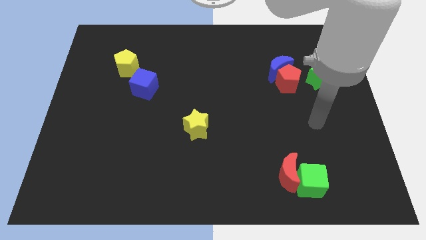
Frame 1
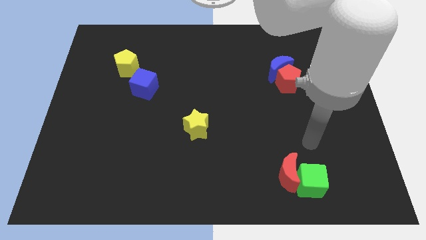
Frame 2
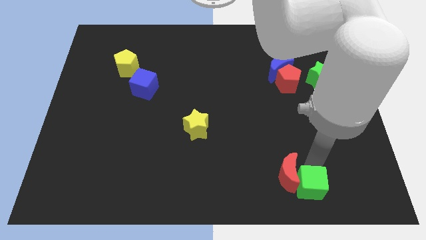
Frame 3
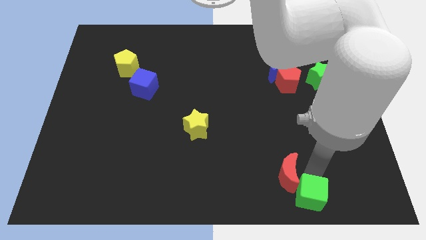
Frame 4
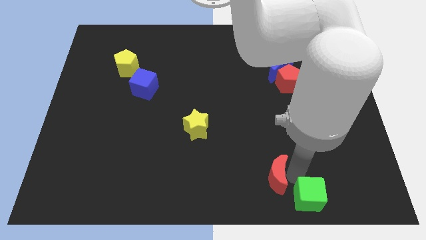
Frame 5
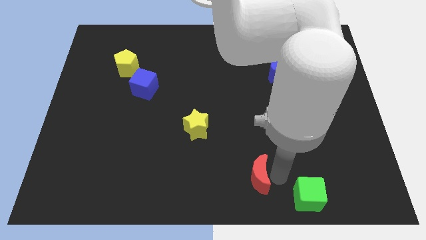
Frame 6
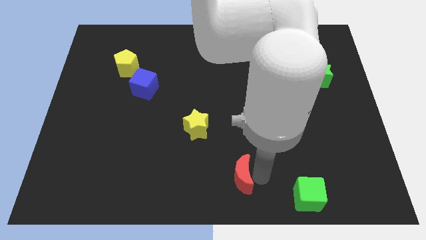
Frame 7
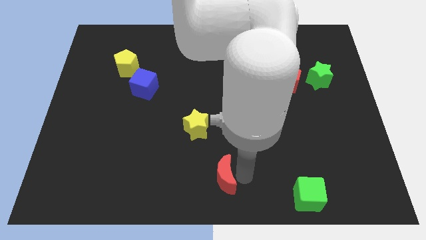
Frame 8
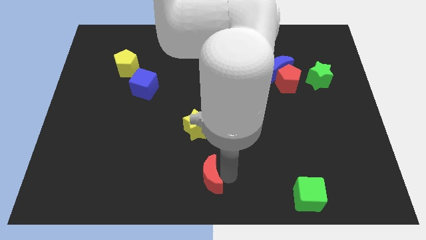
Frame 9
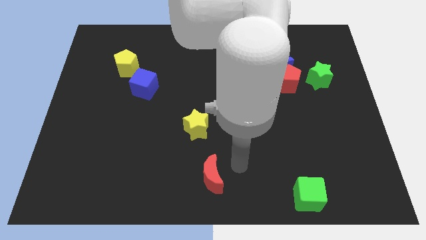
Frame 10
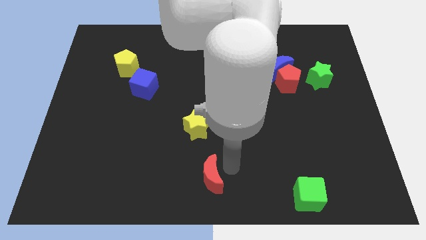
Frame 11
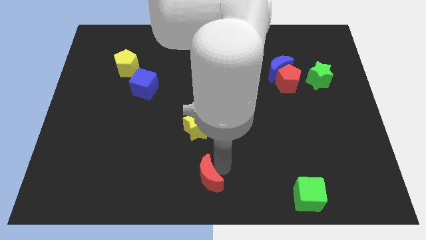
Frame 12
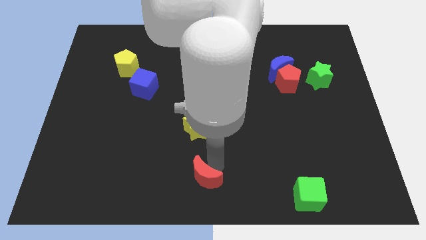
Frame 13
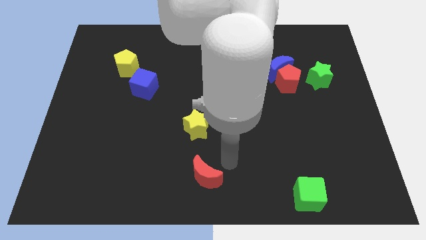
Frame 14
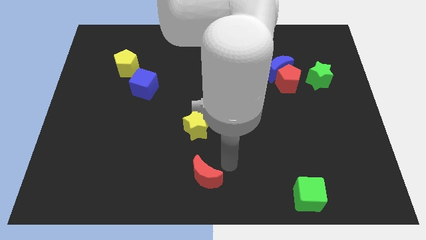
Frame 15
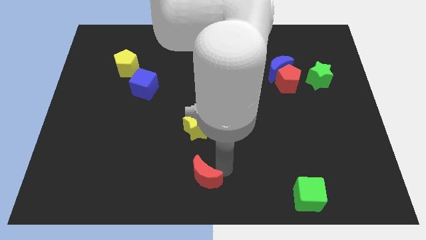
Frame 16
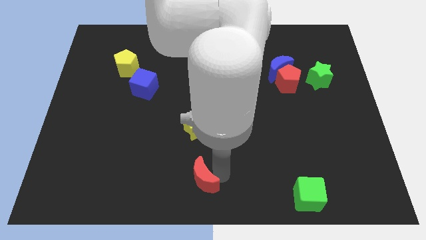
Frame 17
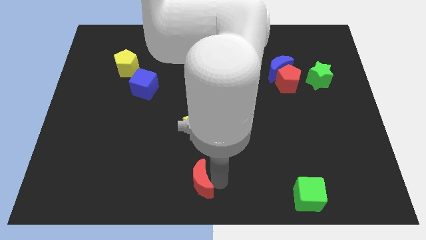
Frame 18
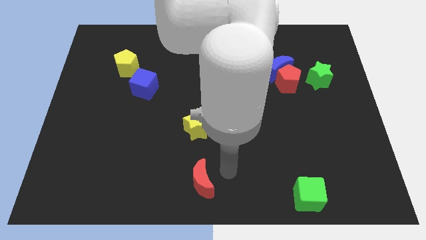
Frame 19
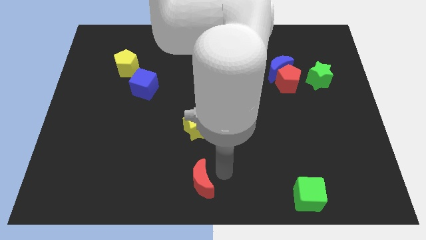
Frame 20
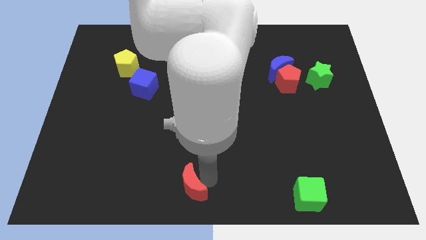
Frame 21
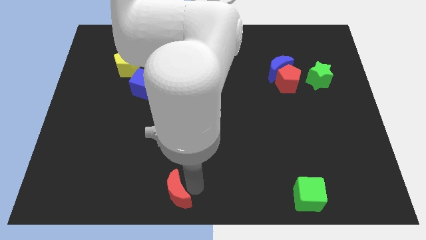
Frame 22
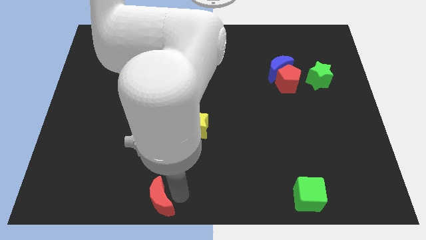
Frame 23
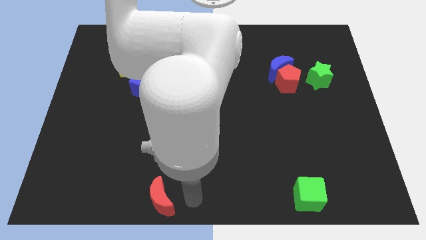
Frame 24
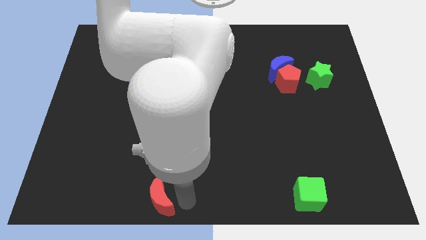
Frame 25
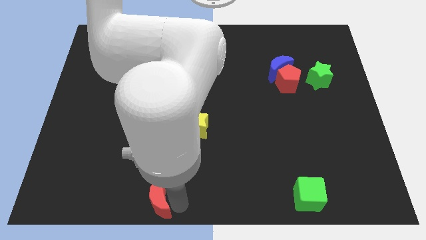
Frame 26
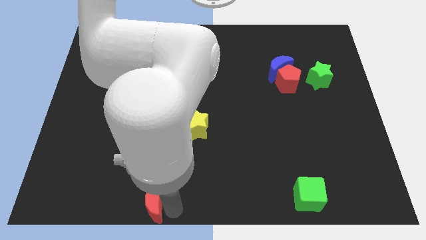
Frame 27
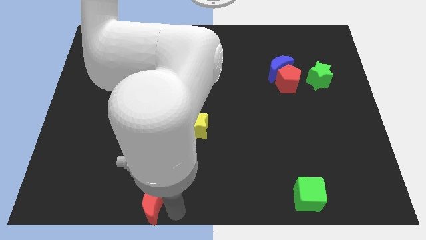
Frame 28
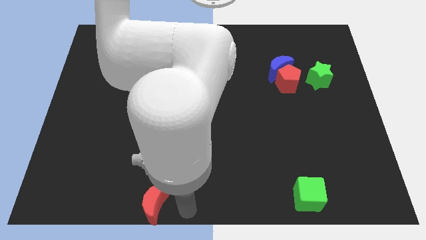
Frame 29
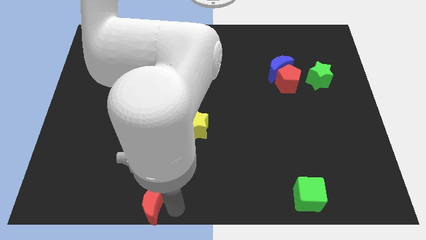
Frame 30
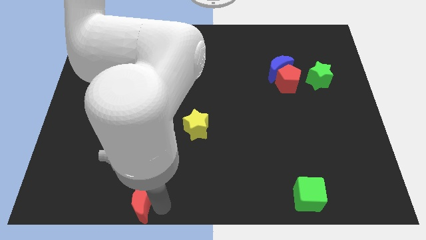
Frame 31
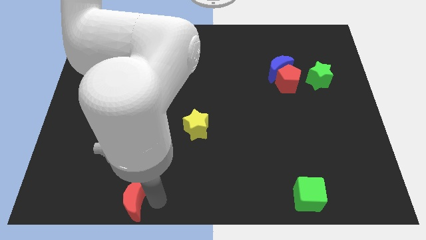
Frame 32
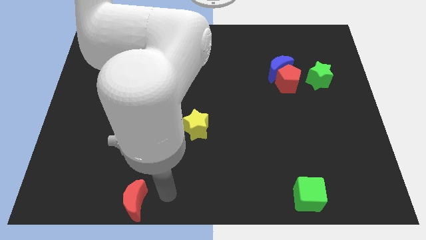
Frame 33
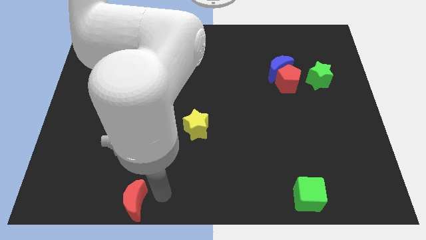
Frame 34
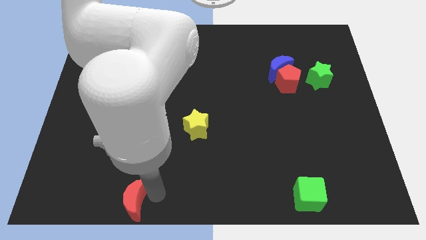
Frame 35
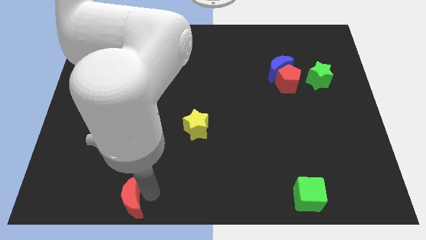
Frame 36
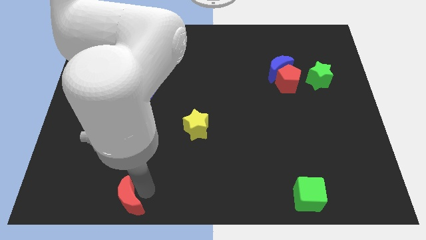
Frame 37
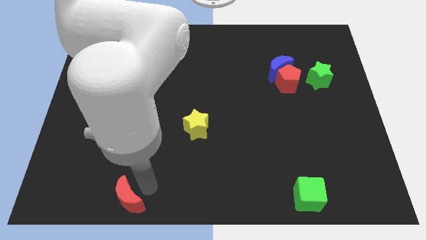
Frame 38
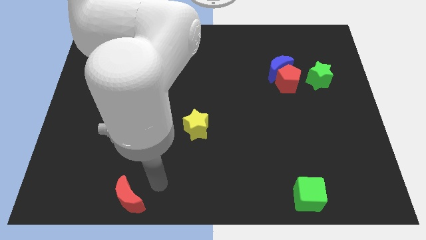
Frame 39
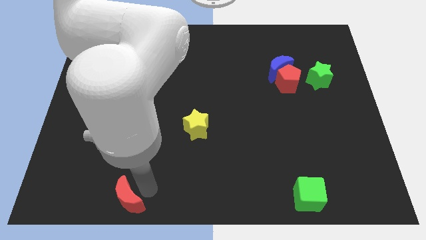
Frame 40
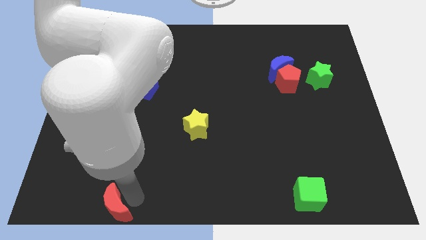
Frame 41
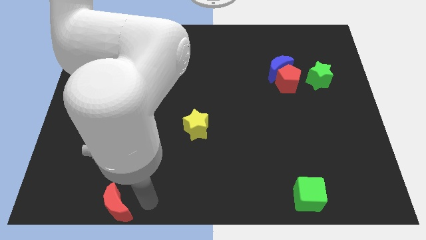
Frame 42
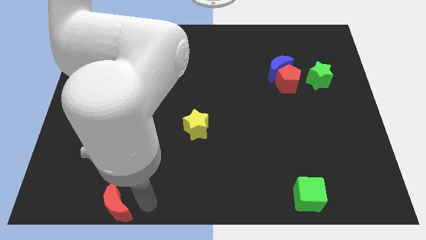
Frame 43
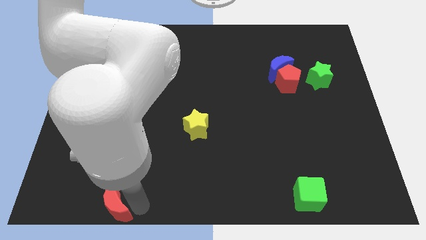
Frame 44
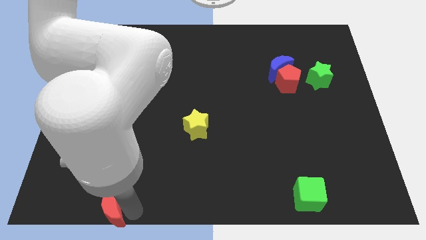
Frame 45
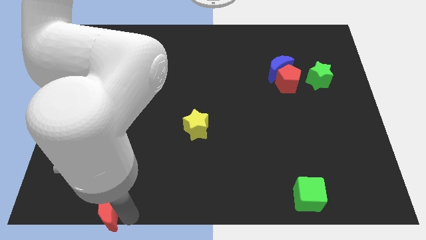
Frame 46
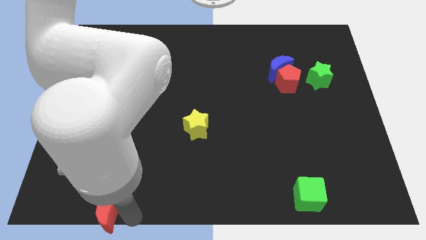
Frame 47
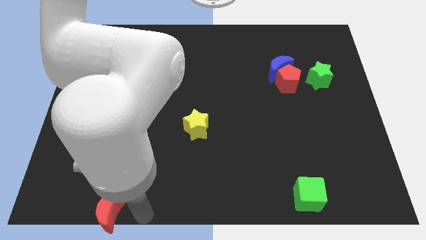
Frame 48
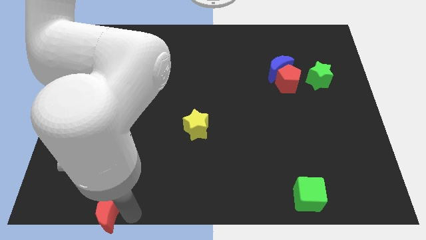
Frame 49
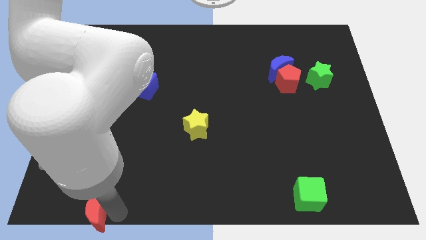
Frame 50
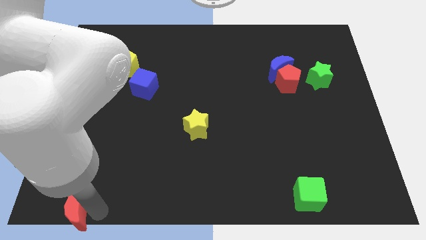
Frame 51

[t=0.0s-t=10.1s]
move the red moon to the lower left corner
